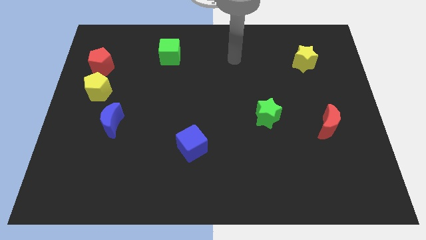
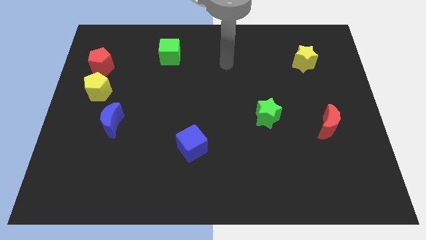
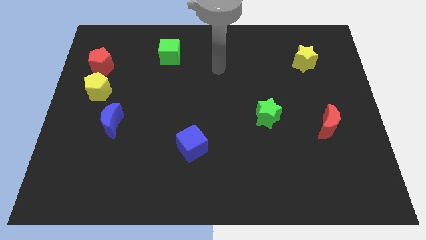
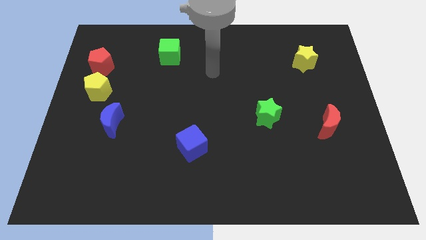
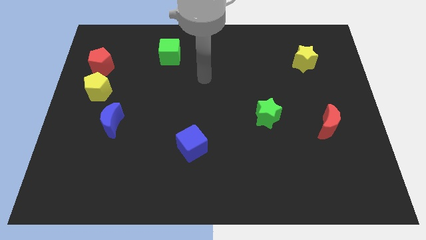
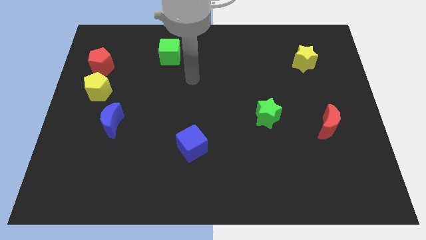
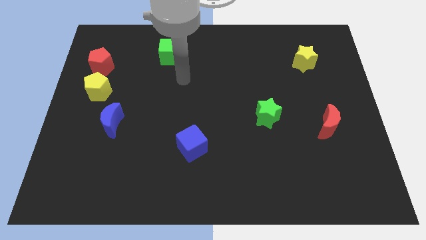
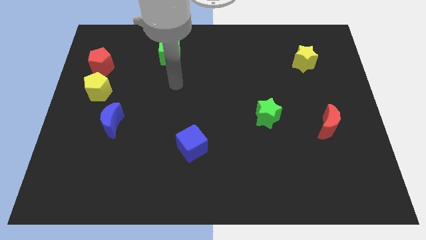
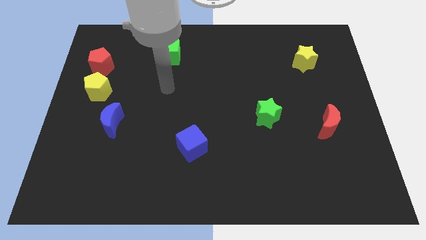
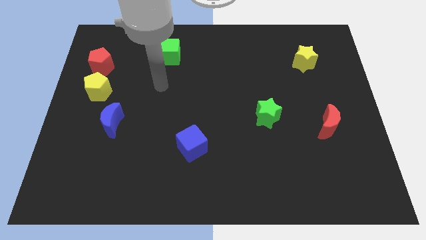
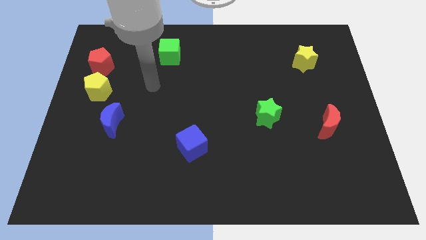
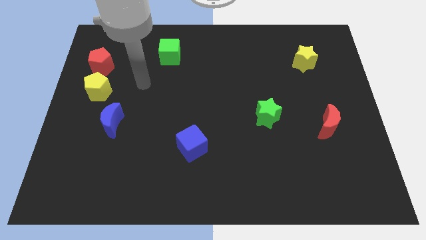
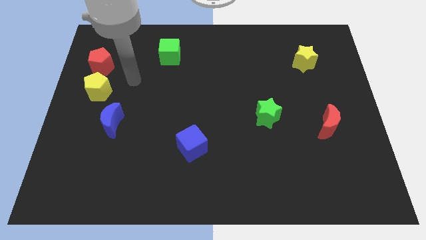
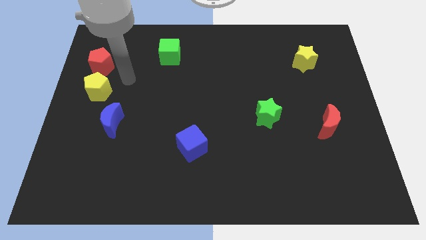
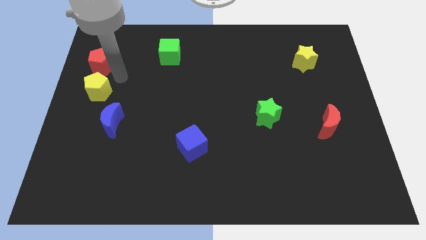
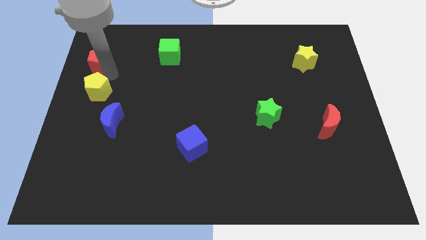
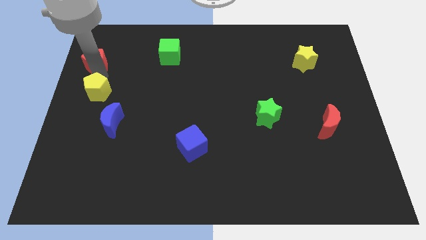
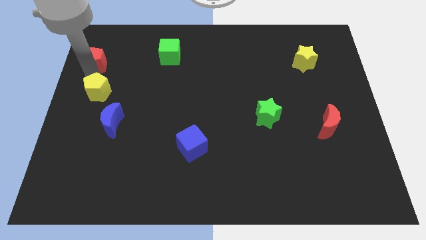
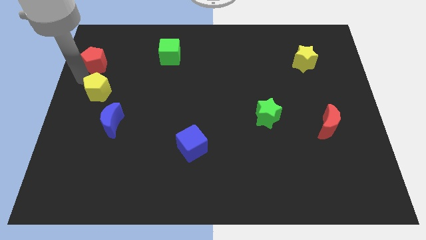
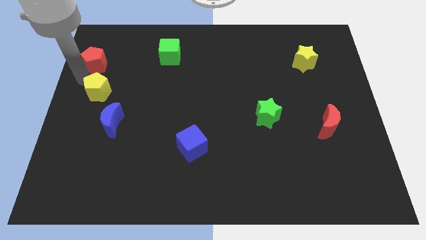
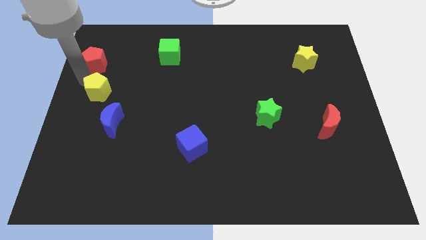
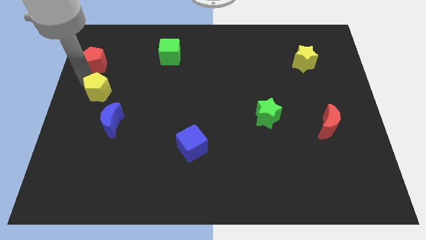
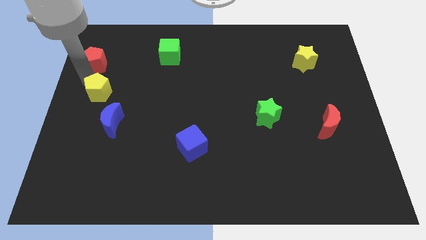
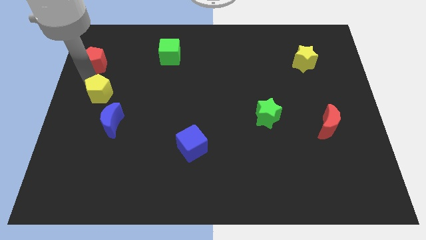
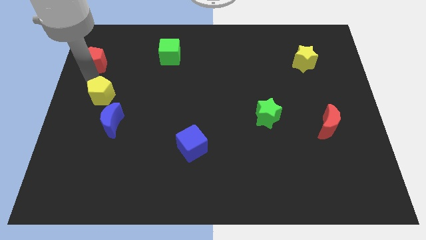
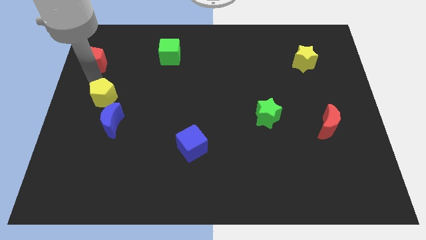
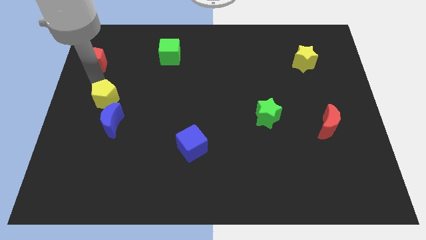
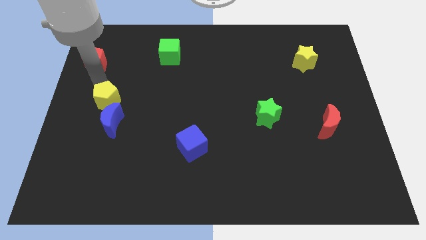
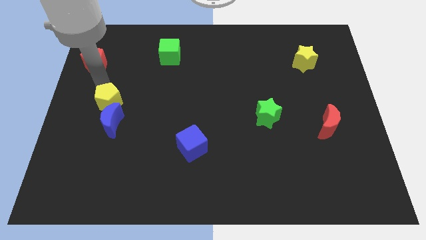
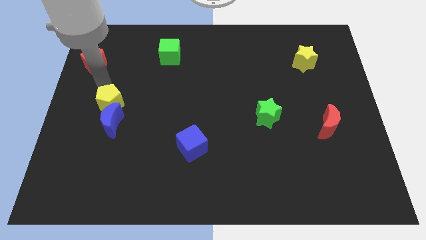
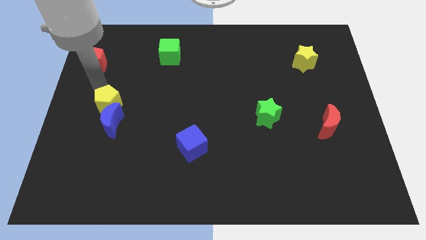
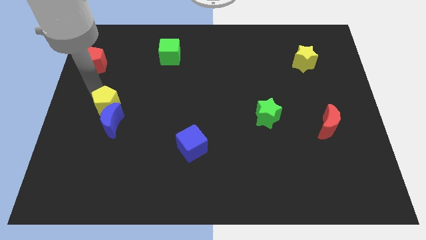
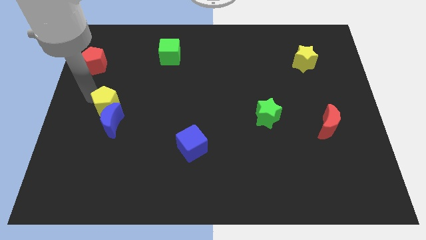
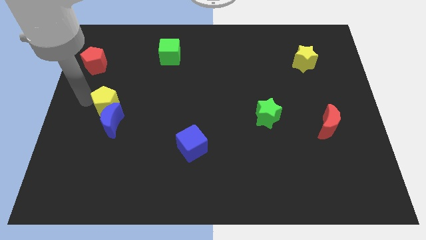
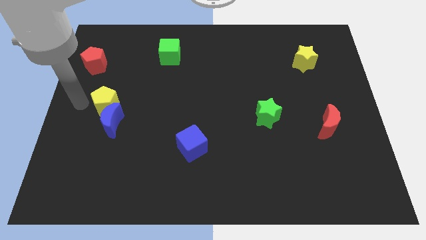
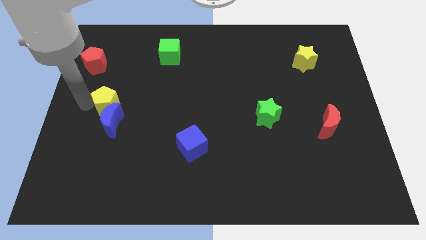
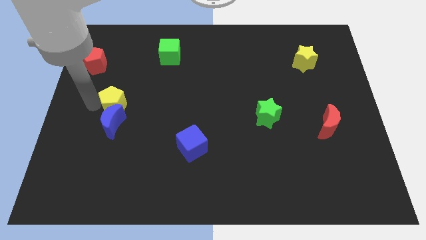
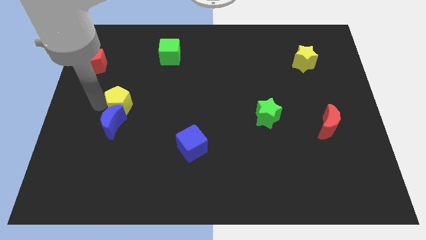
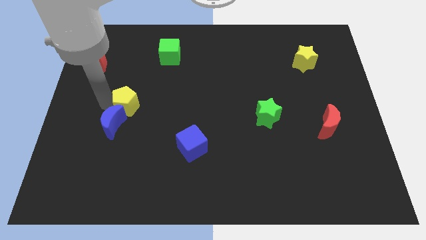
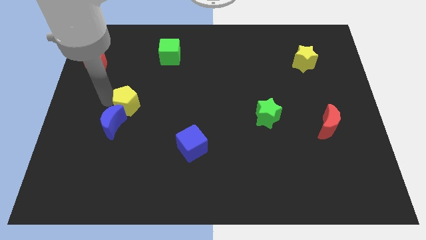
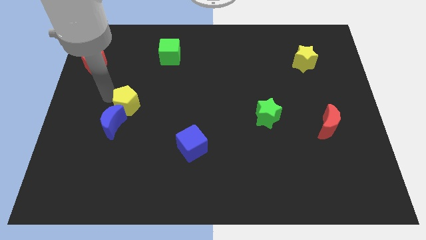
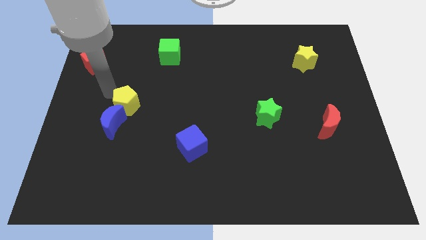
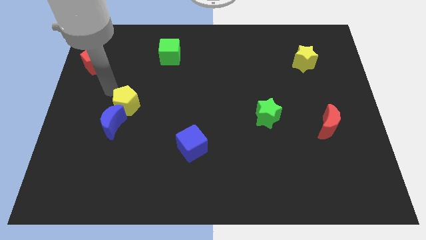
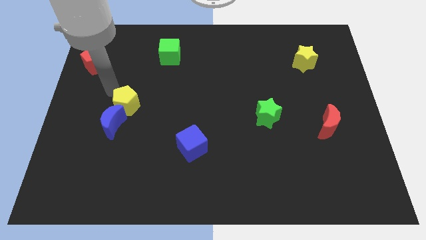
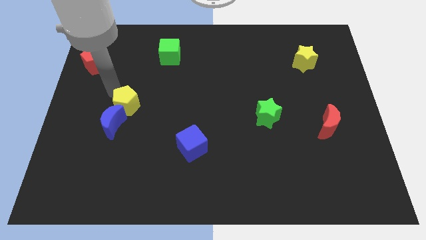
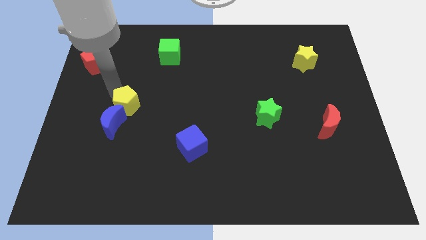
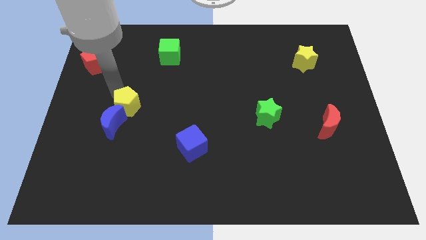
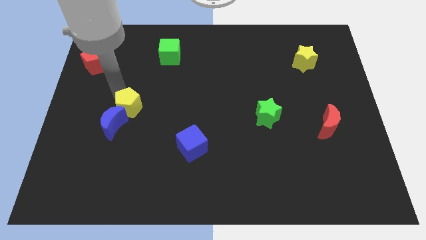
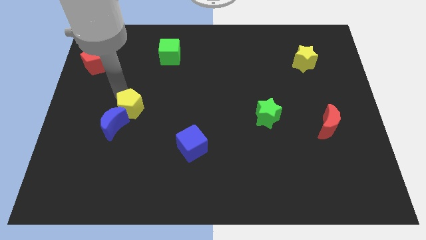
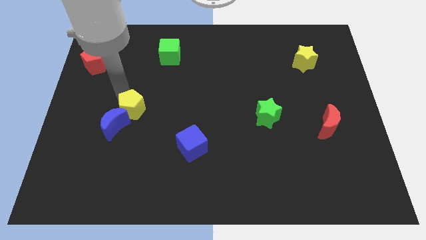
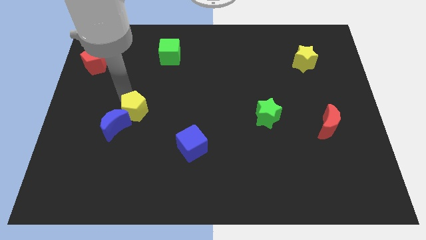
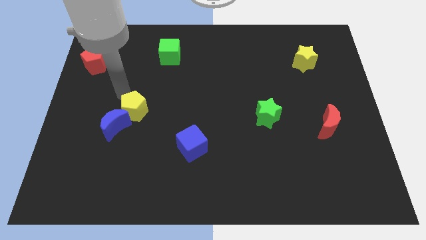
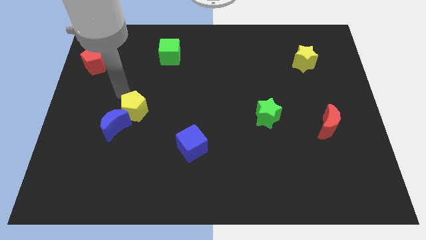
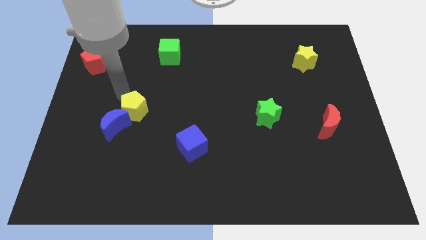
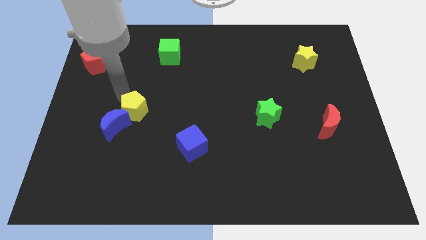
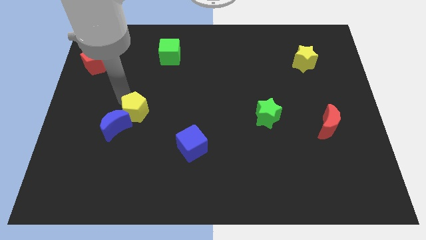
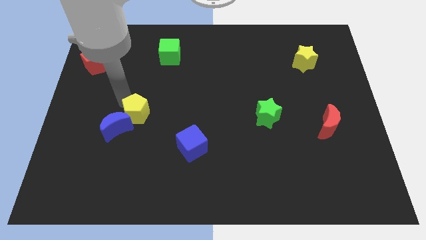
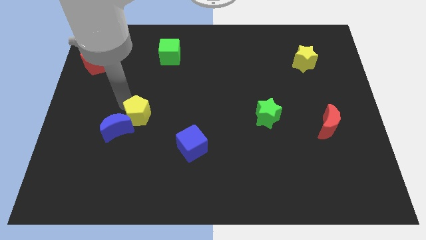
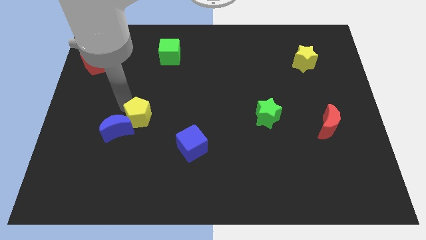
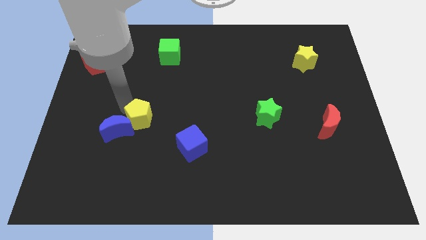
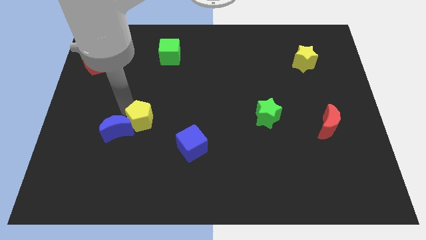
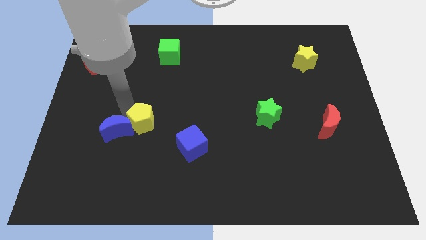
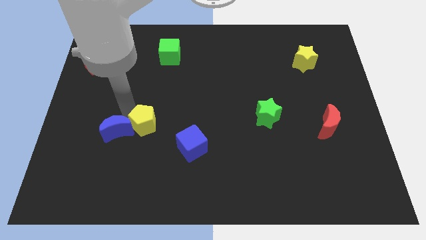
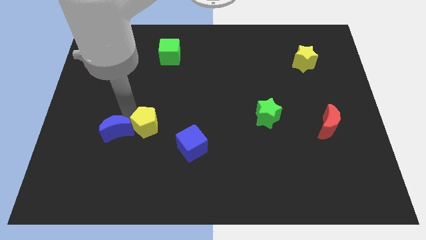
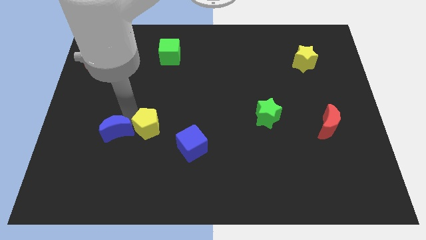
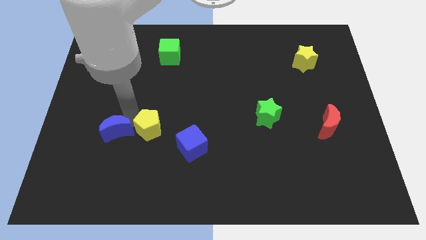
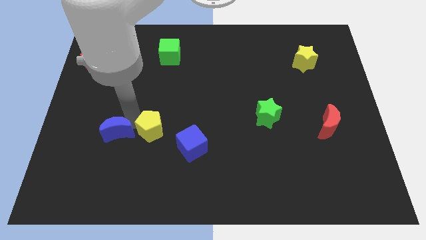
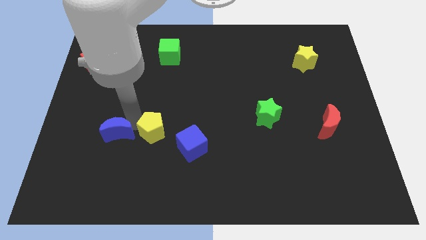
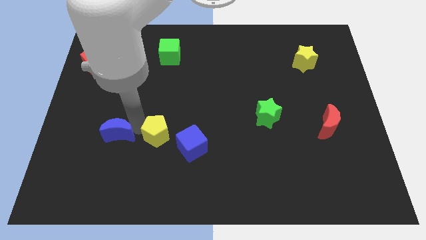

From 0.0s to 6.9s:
push the yellow pentagon diagonally down and right

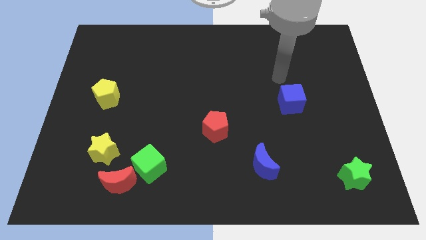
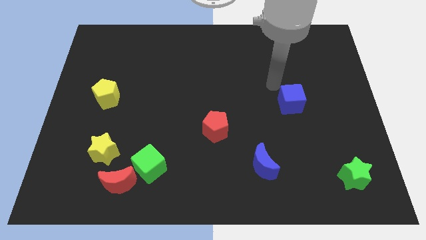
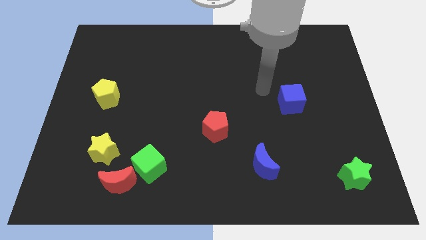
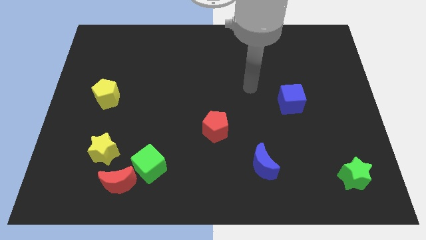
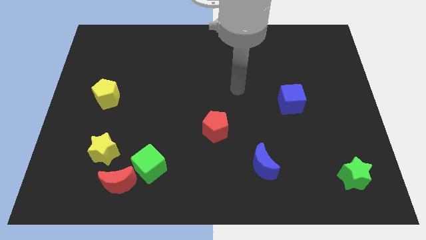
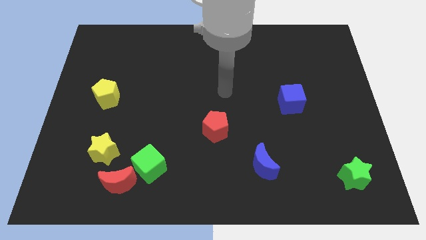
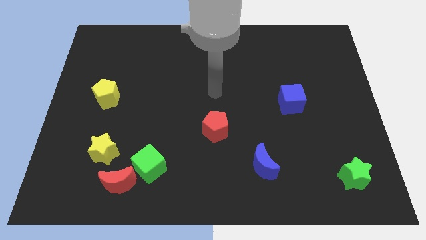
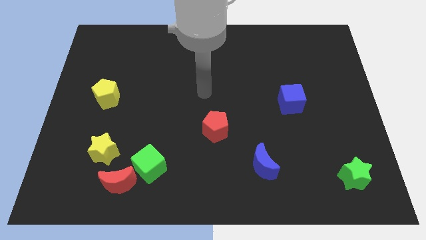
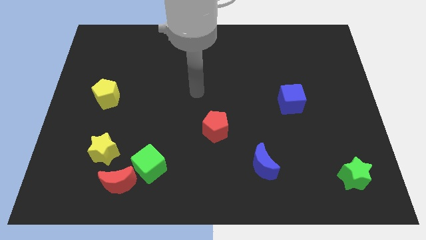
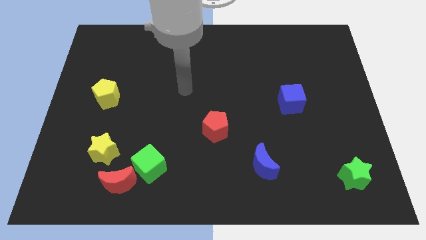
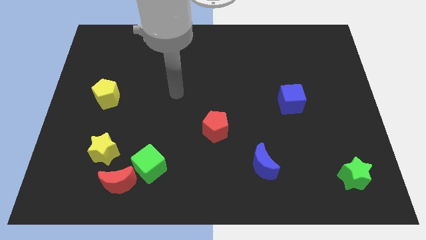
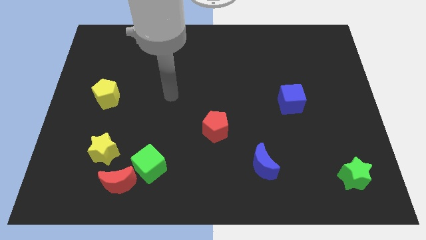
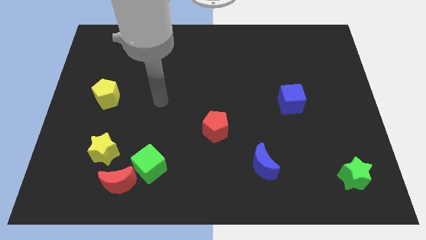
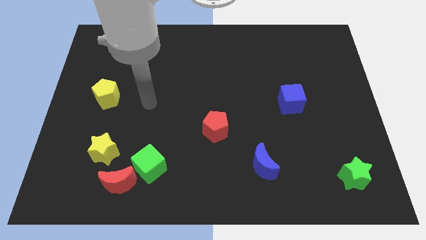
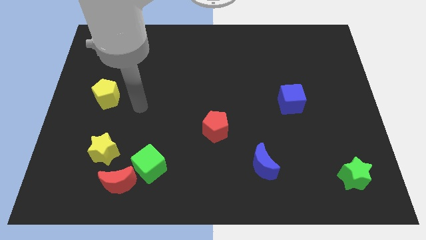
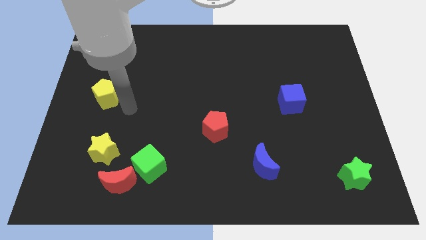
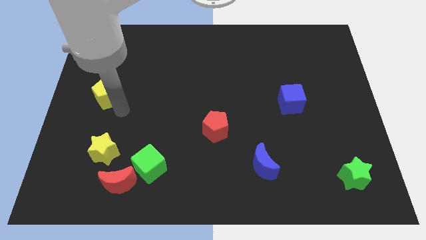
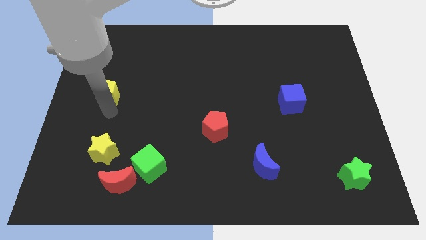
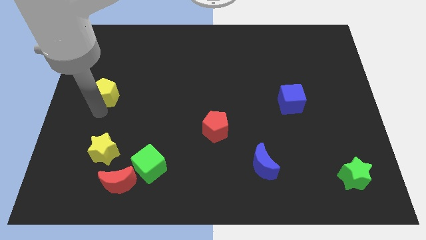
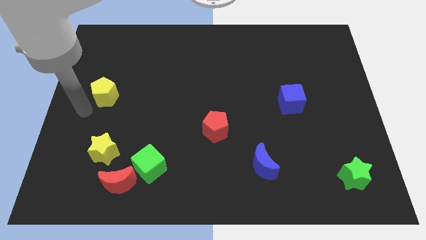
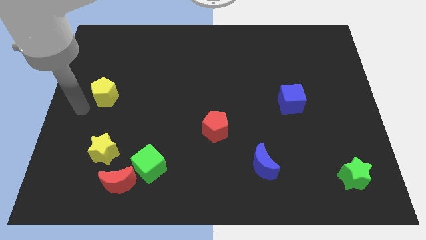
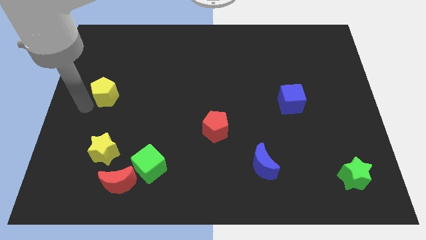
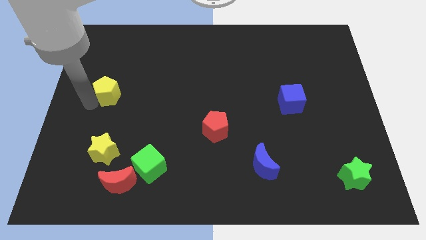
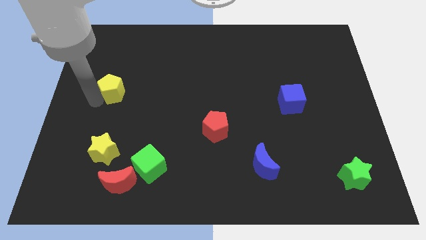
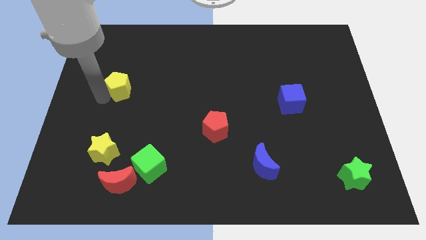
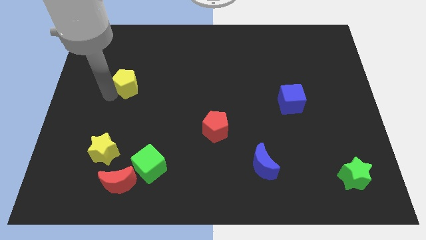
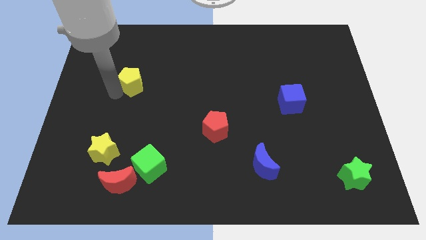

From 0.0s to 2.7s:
slightly move the yellow pentagon upwards and right diagonally
